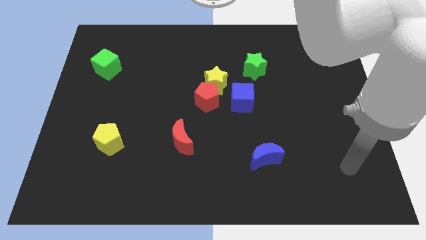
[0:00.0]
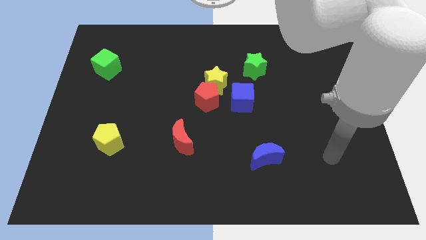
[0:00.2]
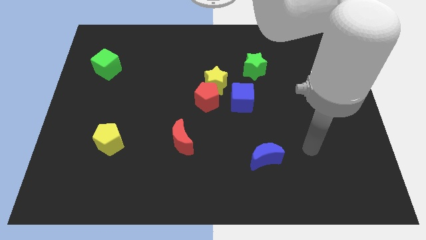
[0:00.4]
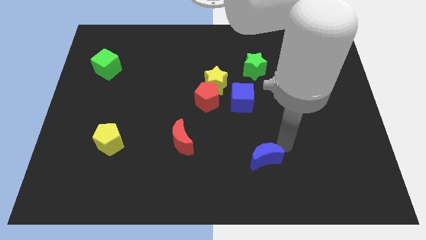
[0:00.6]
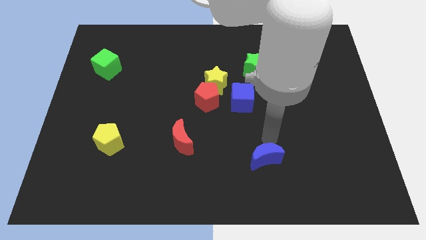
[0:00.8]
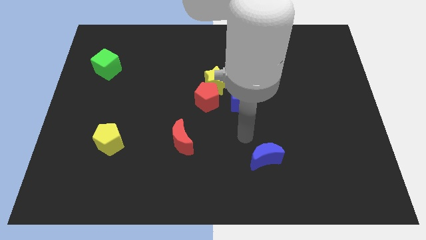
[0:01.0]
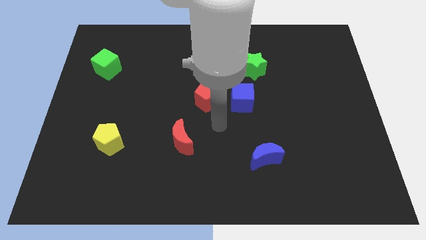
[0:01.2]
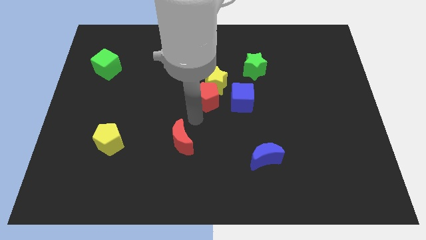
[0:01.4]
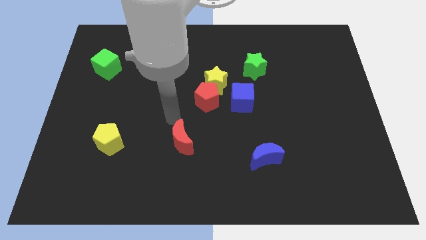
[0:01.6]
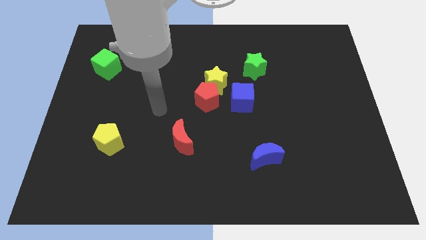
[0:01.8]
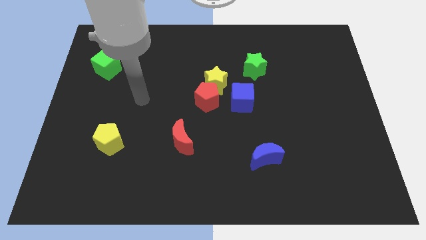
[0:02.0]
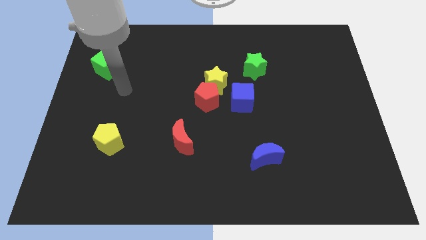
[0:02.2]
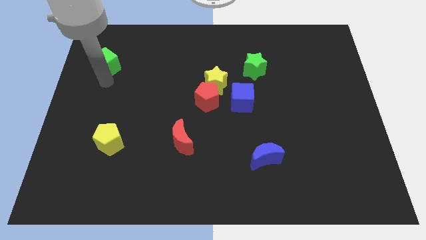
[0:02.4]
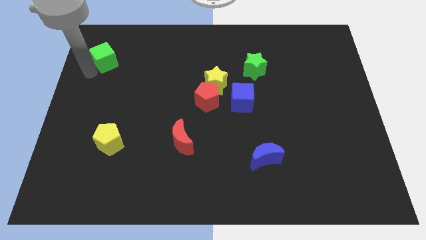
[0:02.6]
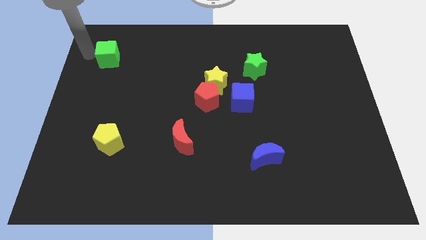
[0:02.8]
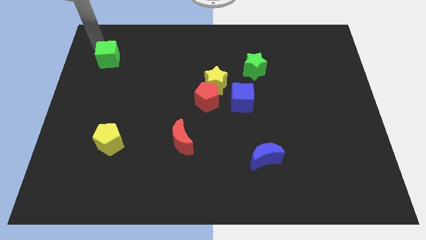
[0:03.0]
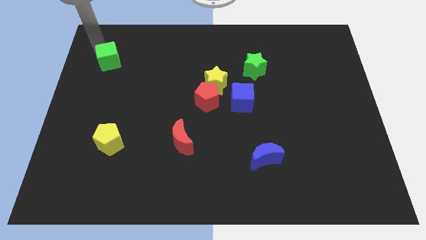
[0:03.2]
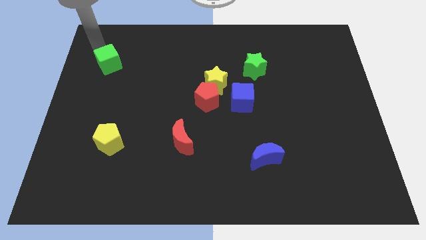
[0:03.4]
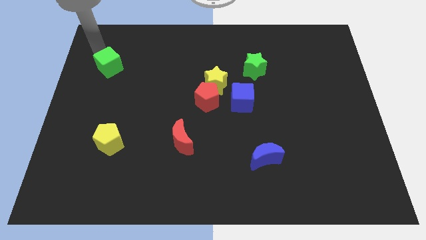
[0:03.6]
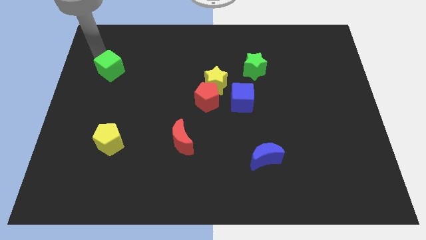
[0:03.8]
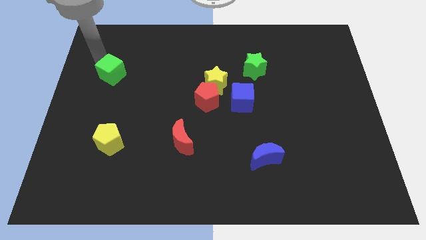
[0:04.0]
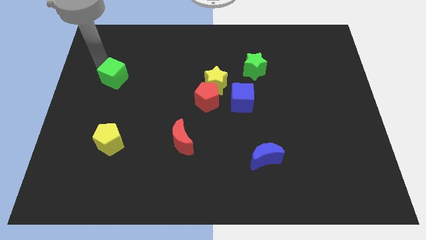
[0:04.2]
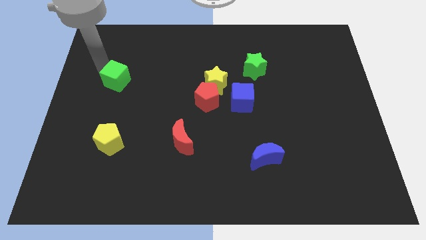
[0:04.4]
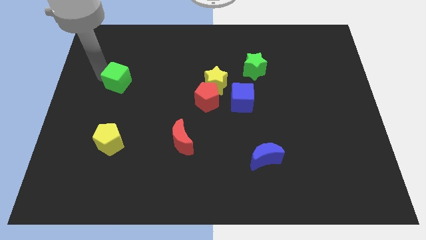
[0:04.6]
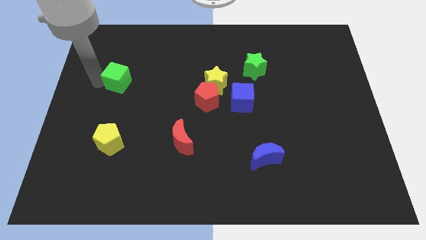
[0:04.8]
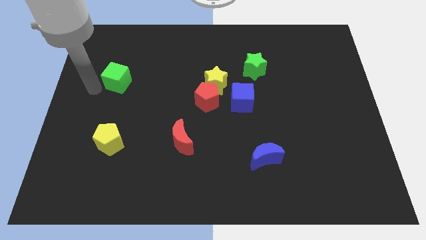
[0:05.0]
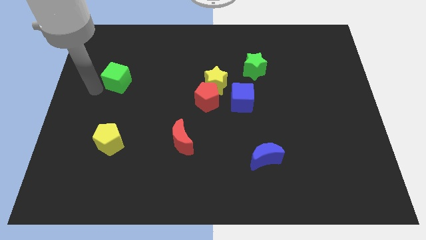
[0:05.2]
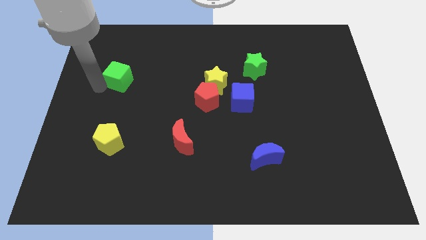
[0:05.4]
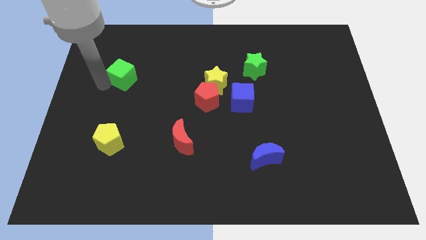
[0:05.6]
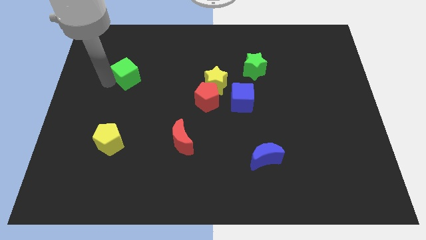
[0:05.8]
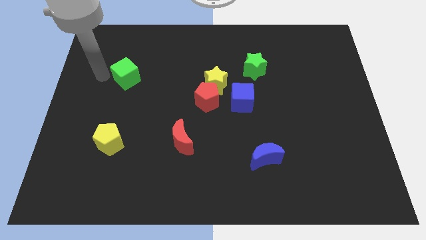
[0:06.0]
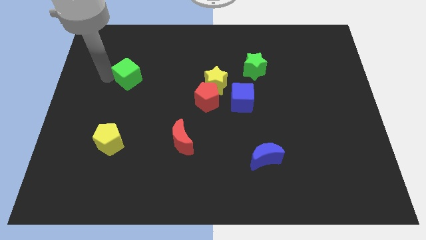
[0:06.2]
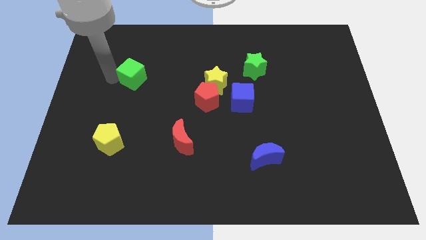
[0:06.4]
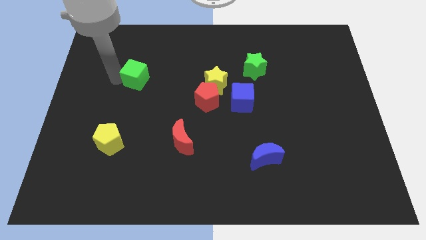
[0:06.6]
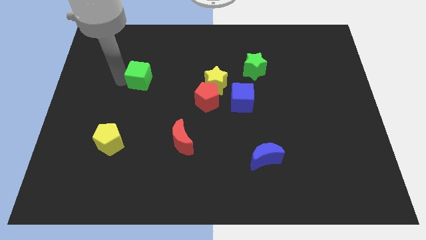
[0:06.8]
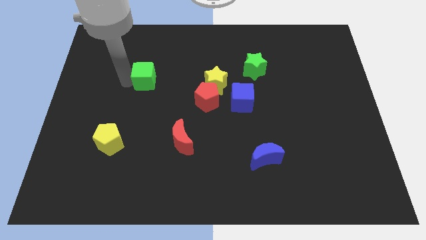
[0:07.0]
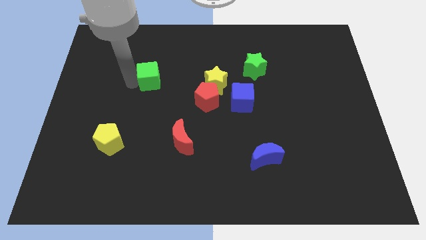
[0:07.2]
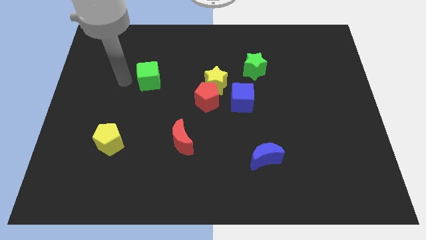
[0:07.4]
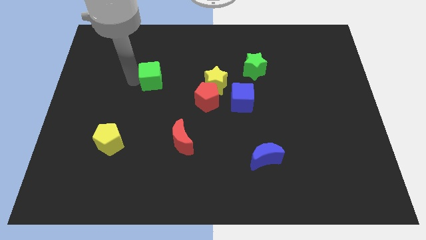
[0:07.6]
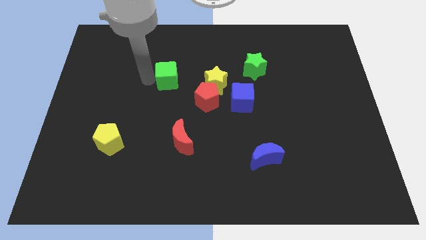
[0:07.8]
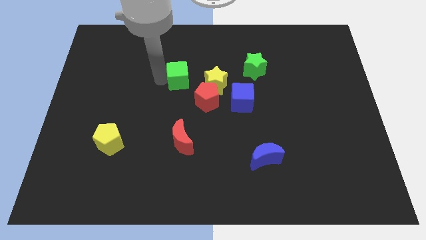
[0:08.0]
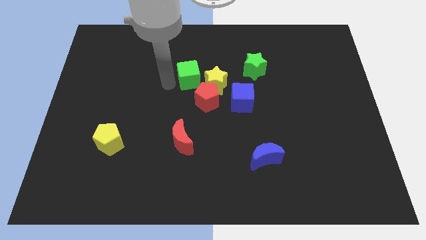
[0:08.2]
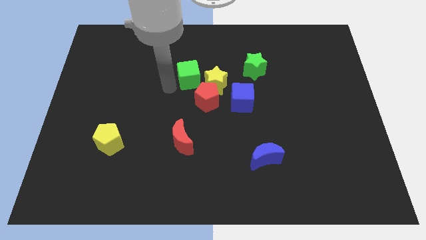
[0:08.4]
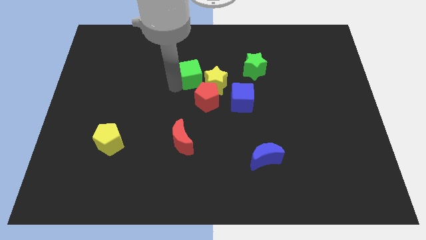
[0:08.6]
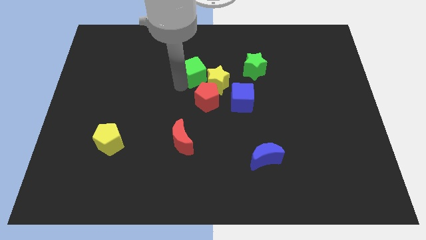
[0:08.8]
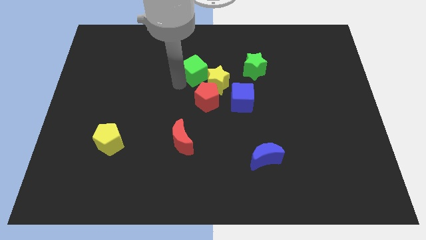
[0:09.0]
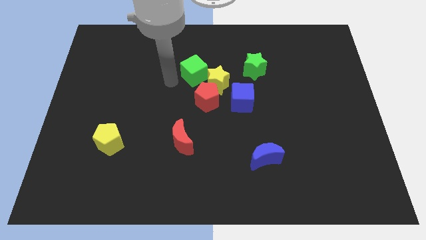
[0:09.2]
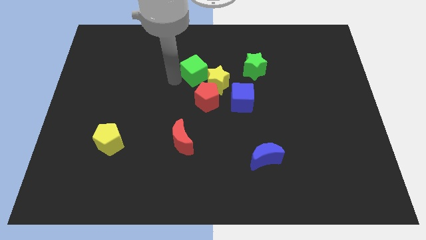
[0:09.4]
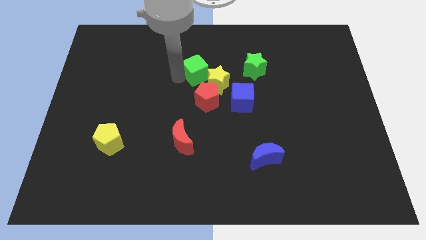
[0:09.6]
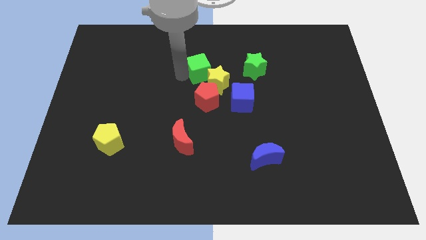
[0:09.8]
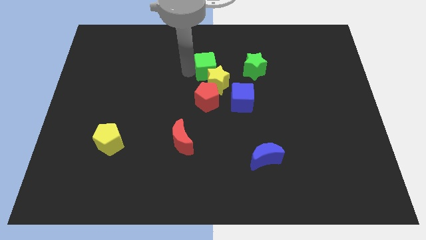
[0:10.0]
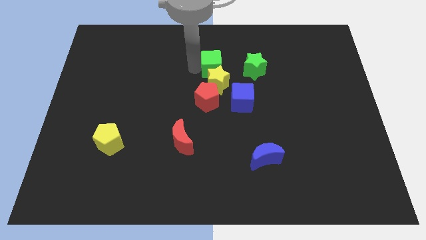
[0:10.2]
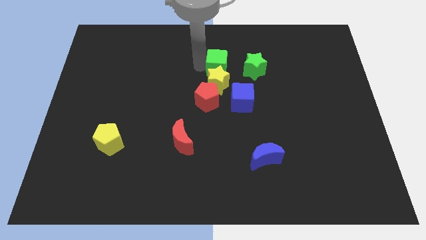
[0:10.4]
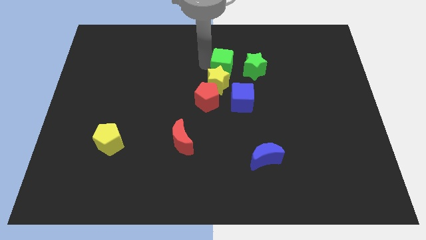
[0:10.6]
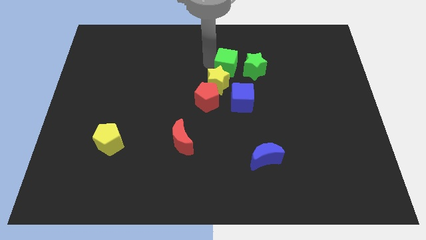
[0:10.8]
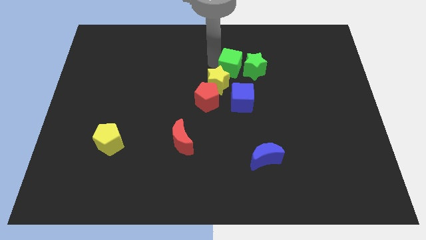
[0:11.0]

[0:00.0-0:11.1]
slide the green cube to the green star

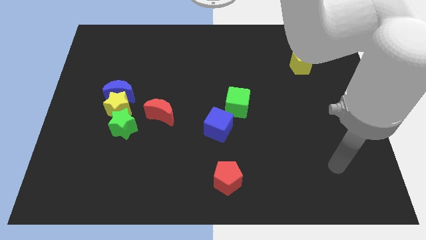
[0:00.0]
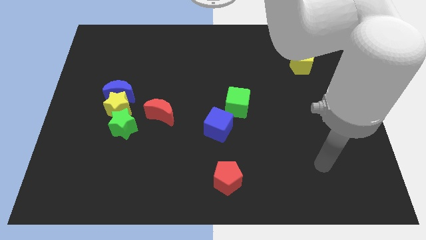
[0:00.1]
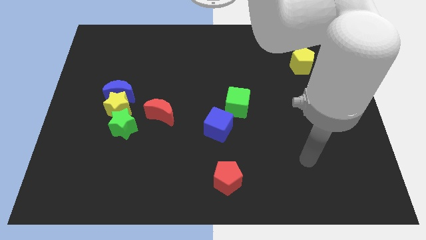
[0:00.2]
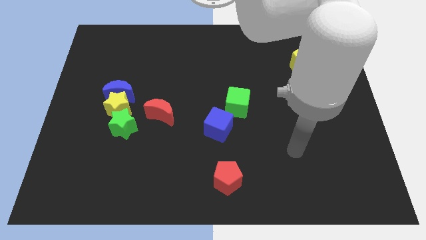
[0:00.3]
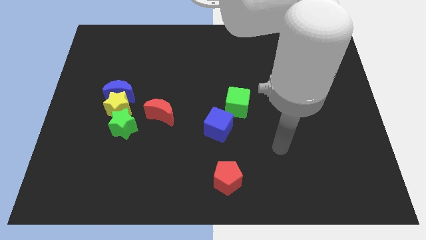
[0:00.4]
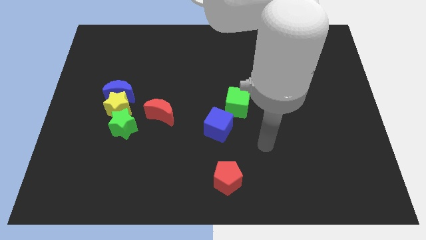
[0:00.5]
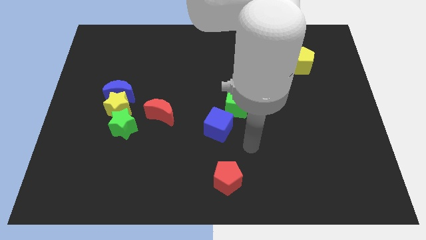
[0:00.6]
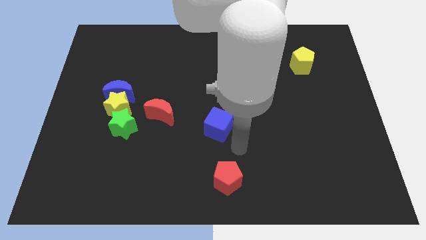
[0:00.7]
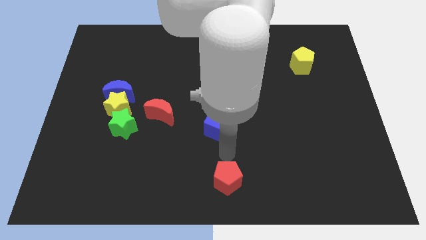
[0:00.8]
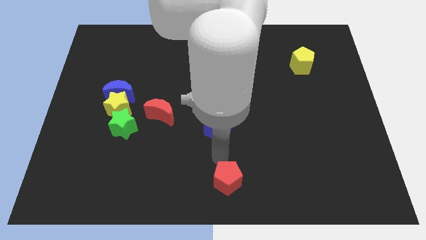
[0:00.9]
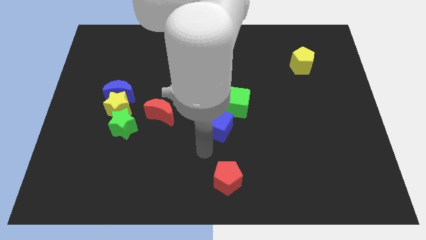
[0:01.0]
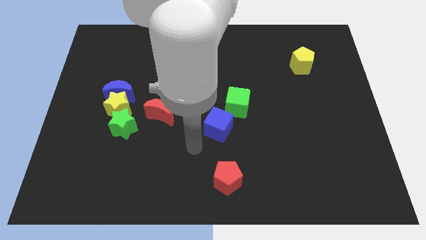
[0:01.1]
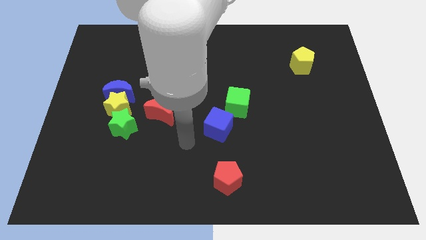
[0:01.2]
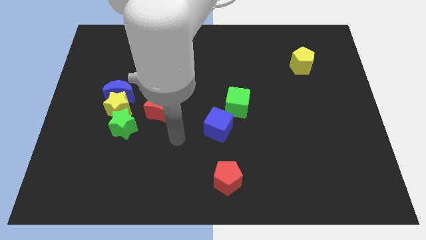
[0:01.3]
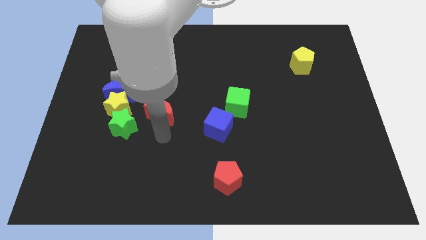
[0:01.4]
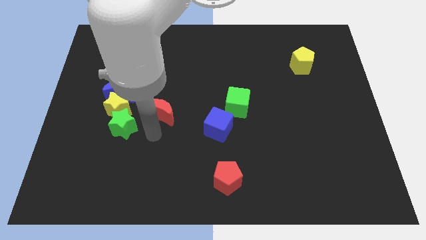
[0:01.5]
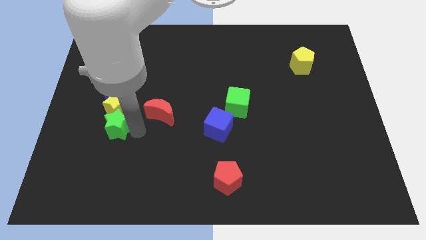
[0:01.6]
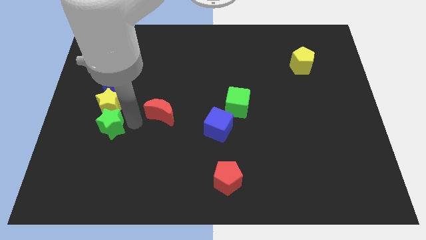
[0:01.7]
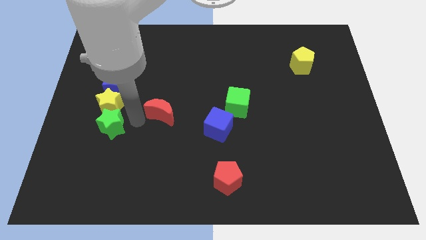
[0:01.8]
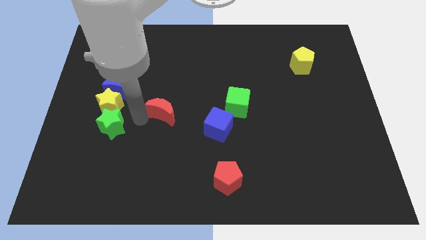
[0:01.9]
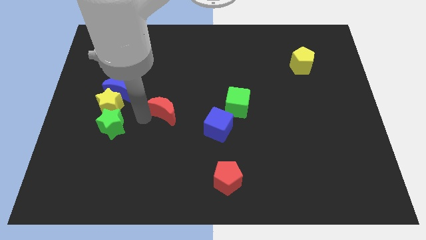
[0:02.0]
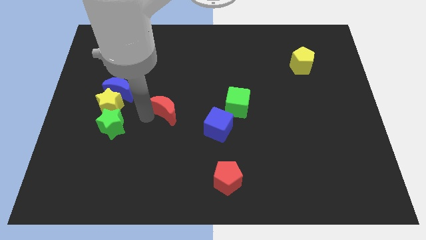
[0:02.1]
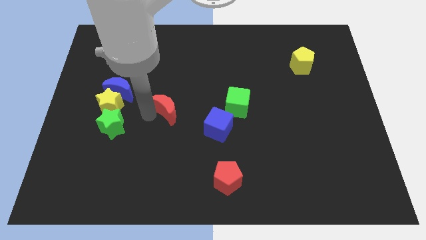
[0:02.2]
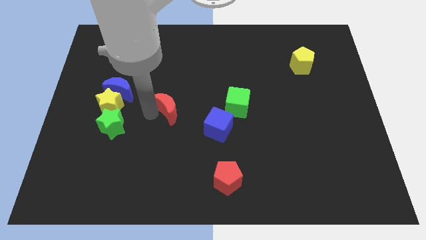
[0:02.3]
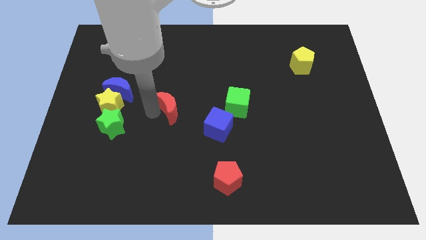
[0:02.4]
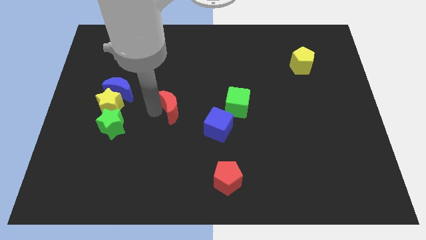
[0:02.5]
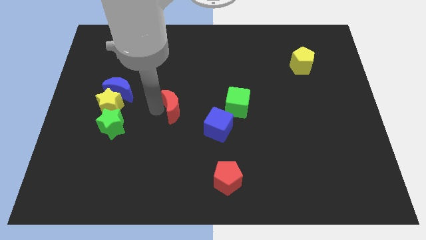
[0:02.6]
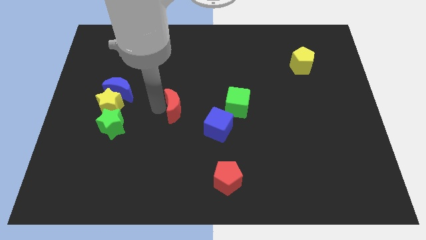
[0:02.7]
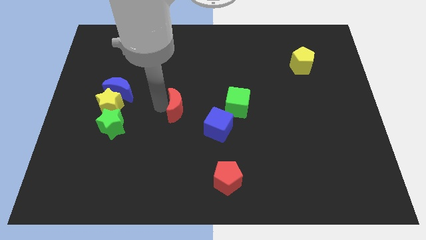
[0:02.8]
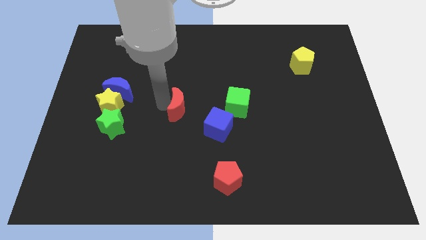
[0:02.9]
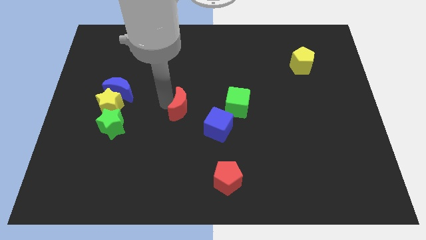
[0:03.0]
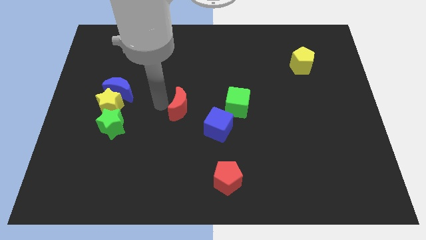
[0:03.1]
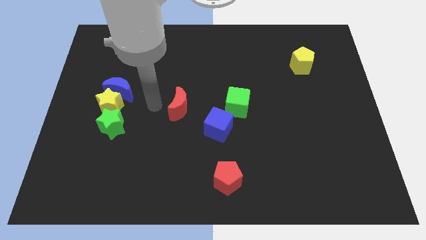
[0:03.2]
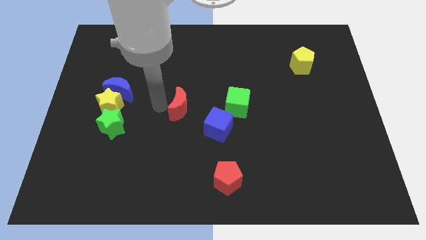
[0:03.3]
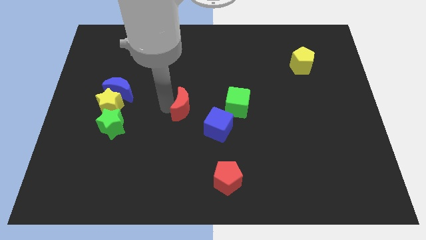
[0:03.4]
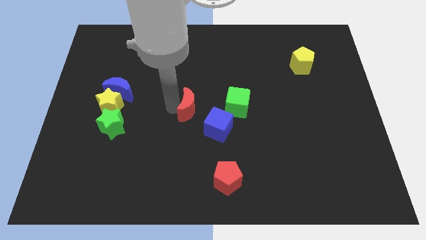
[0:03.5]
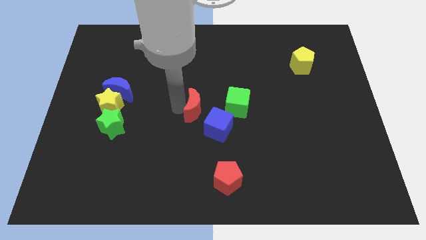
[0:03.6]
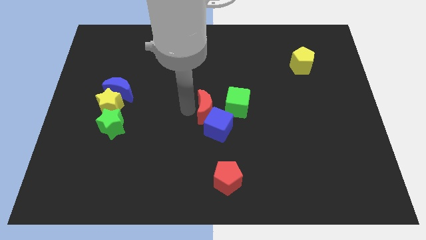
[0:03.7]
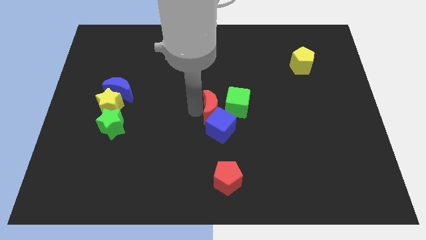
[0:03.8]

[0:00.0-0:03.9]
push the red moon next to the green cube
